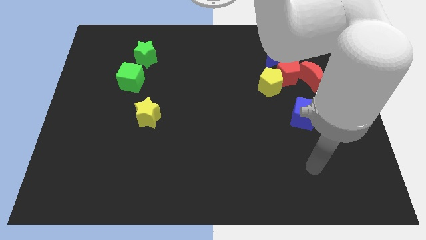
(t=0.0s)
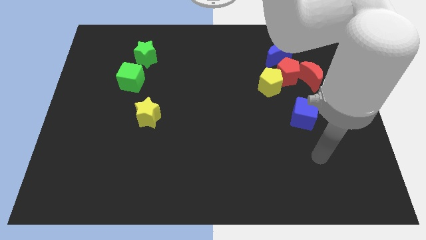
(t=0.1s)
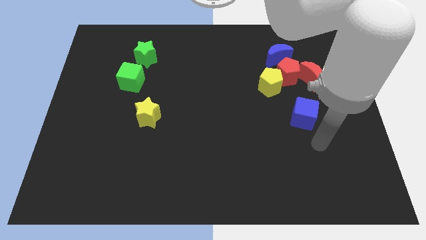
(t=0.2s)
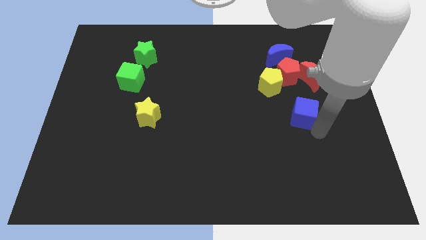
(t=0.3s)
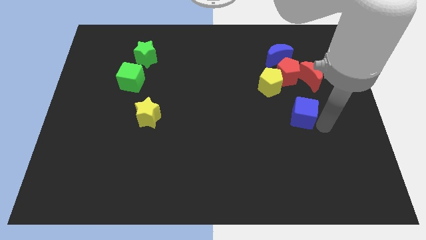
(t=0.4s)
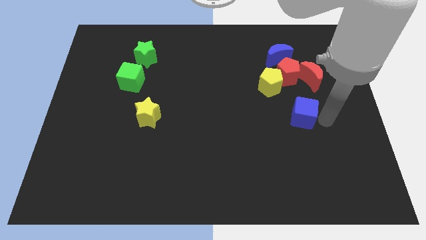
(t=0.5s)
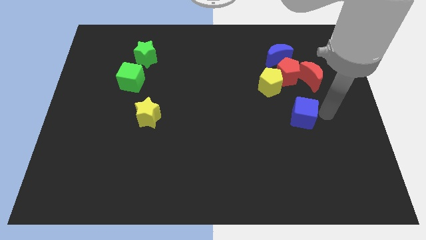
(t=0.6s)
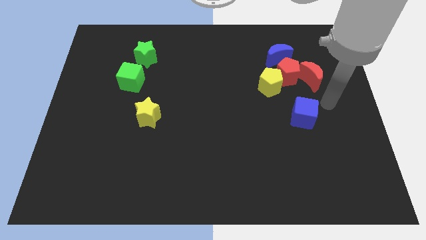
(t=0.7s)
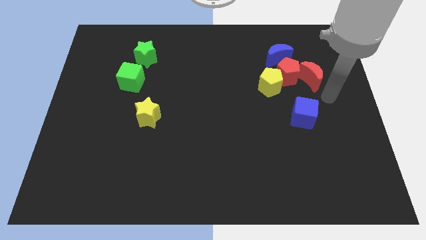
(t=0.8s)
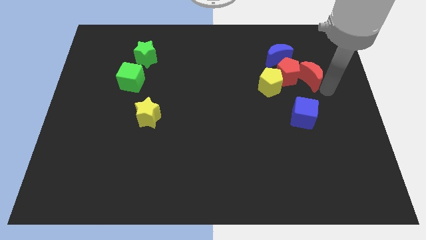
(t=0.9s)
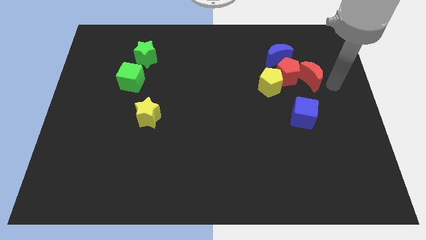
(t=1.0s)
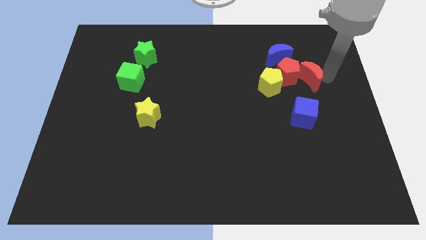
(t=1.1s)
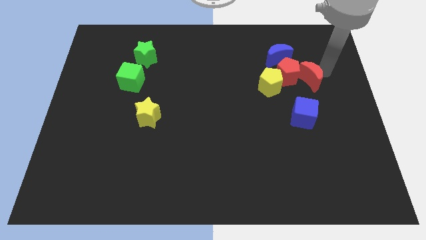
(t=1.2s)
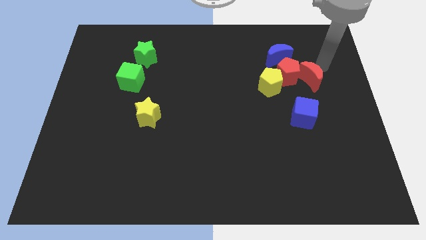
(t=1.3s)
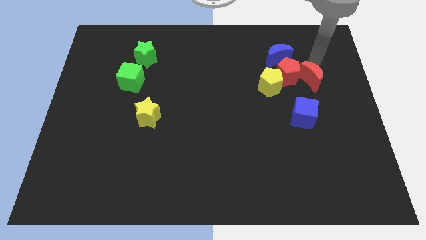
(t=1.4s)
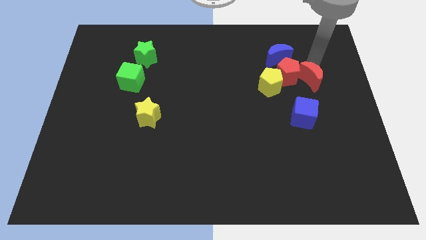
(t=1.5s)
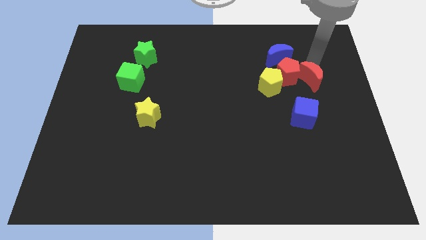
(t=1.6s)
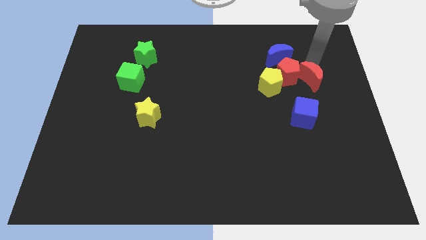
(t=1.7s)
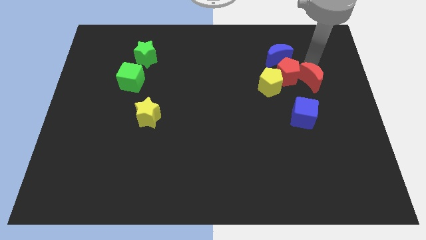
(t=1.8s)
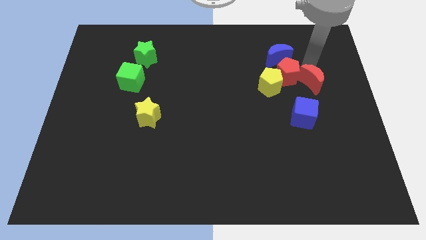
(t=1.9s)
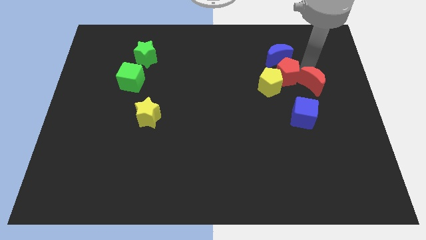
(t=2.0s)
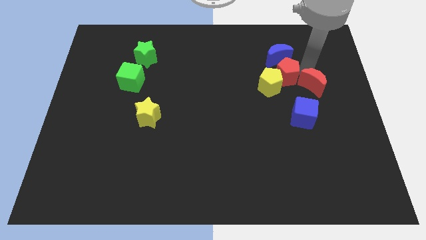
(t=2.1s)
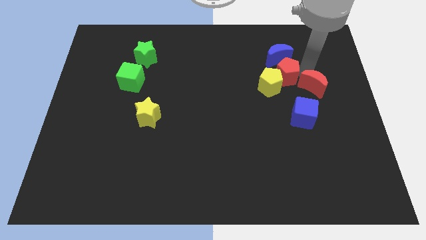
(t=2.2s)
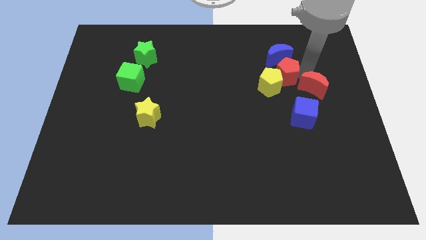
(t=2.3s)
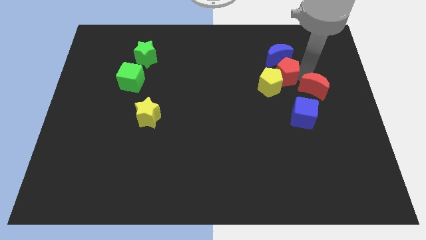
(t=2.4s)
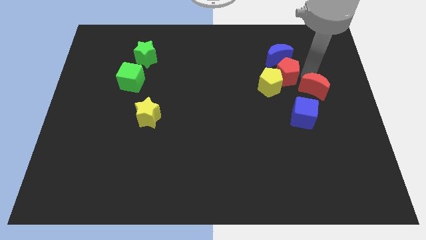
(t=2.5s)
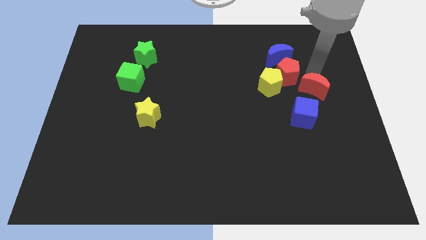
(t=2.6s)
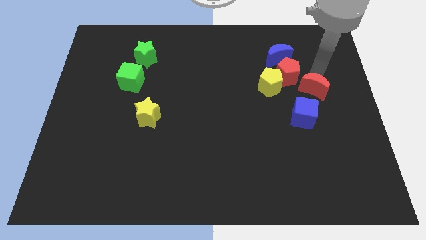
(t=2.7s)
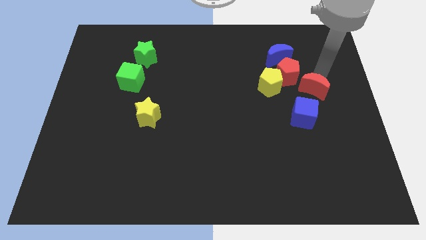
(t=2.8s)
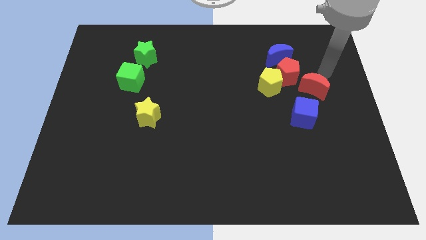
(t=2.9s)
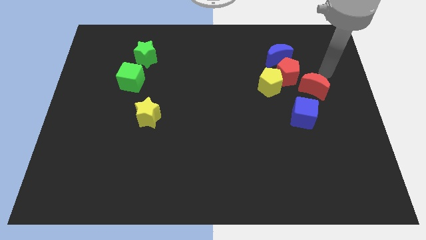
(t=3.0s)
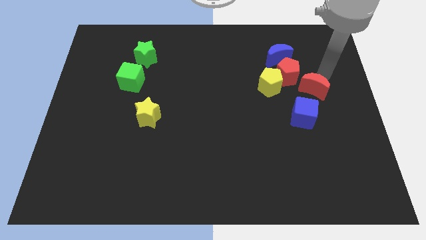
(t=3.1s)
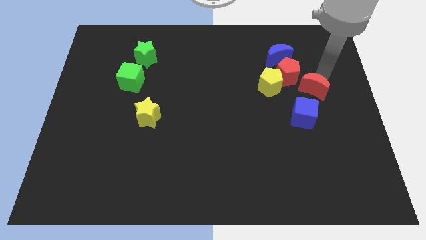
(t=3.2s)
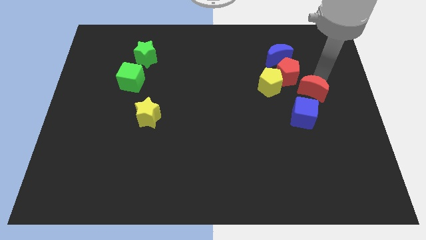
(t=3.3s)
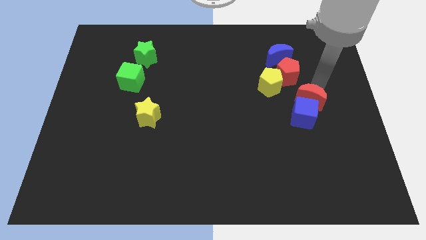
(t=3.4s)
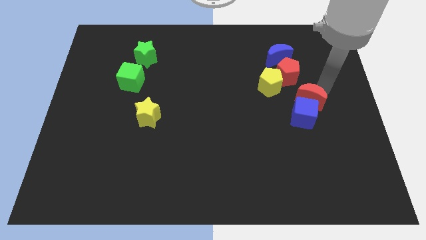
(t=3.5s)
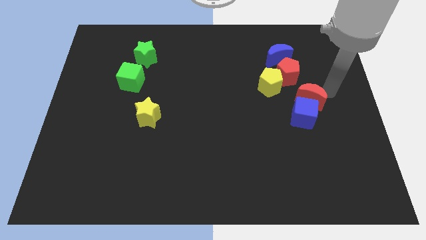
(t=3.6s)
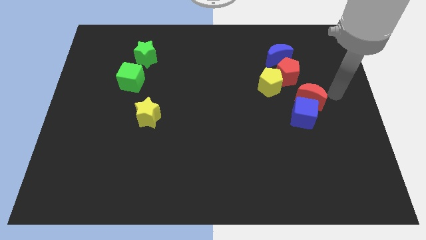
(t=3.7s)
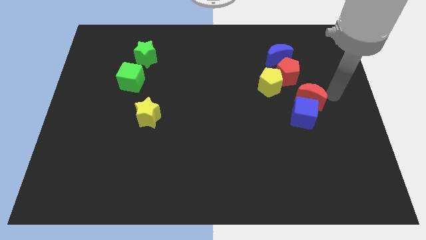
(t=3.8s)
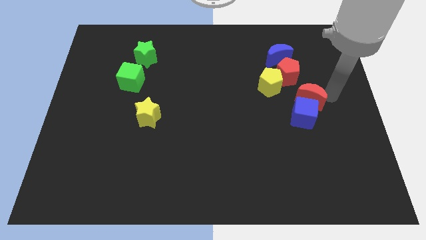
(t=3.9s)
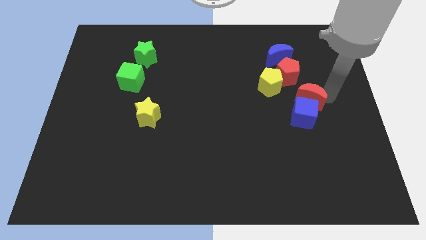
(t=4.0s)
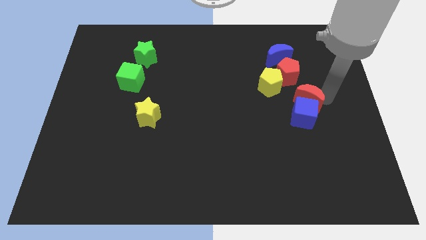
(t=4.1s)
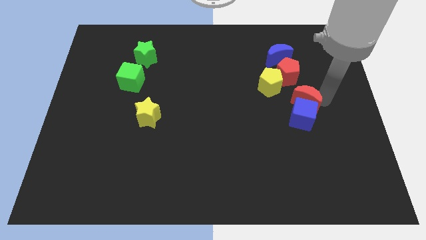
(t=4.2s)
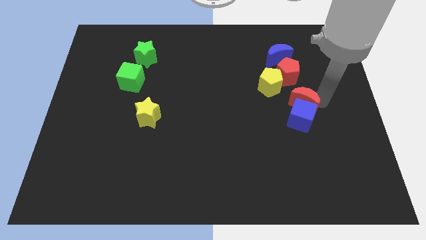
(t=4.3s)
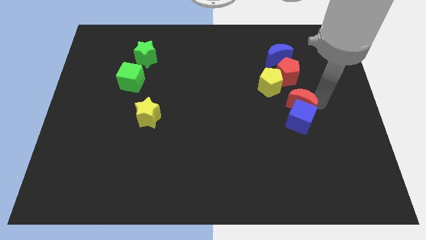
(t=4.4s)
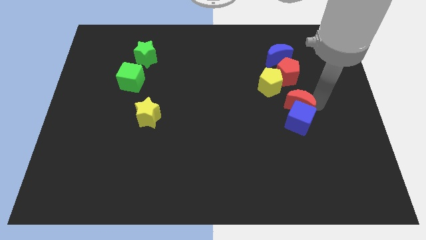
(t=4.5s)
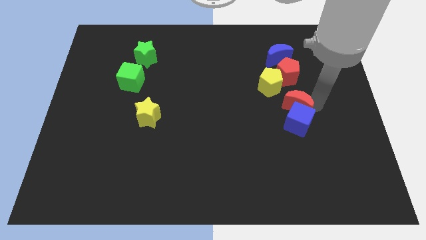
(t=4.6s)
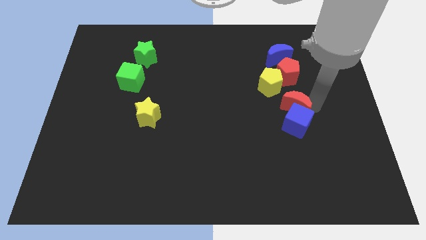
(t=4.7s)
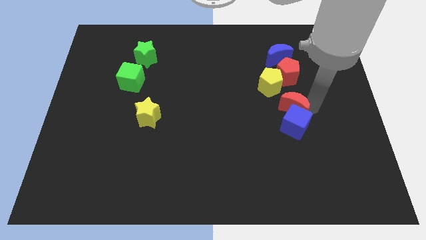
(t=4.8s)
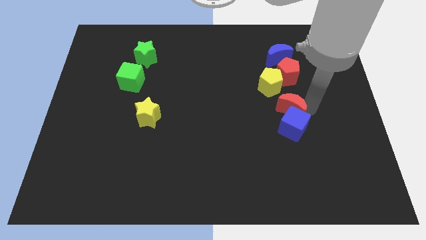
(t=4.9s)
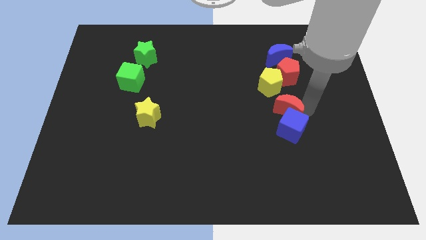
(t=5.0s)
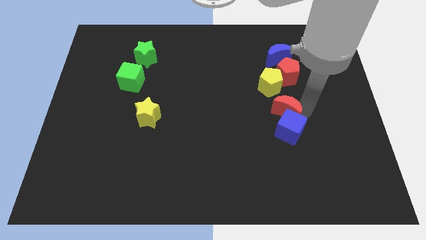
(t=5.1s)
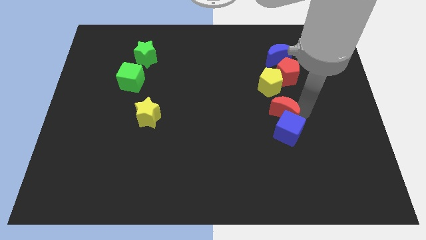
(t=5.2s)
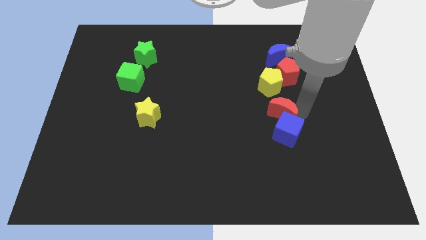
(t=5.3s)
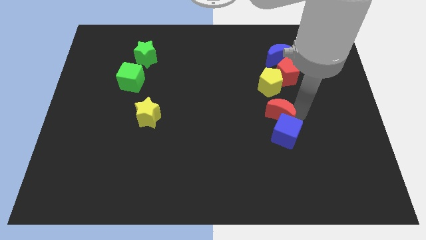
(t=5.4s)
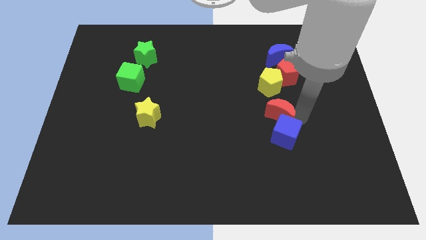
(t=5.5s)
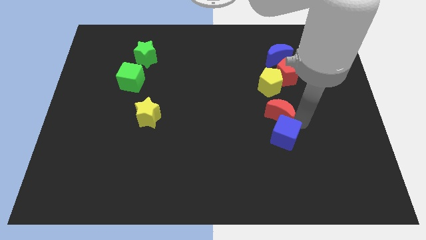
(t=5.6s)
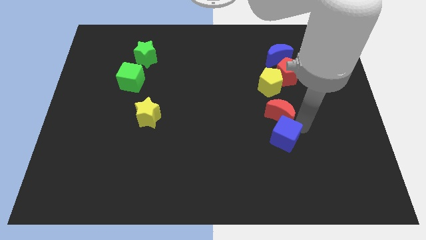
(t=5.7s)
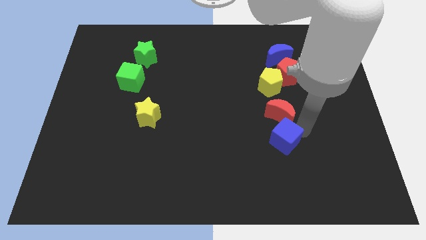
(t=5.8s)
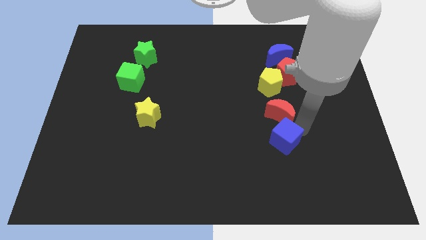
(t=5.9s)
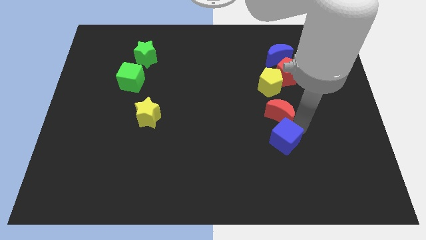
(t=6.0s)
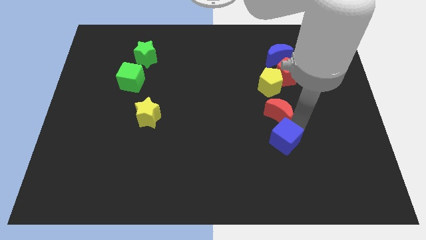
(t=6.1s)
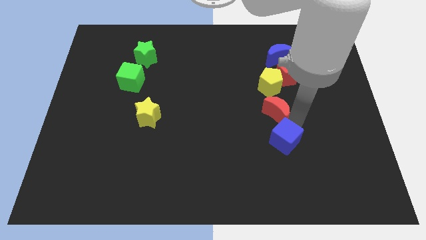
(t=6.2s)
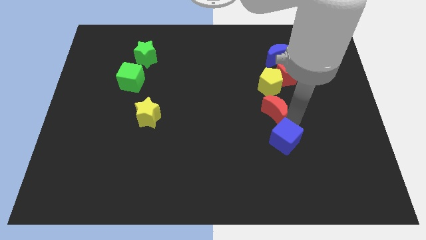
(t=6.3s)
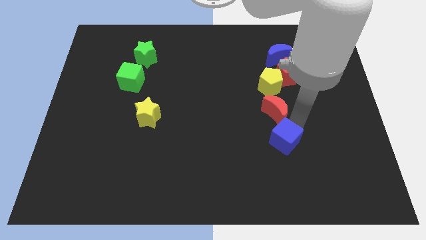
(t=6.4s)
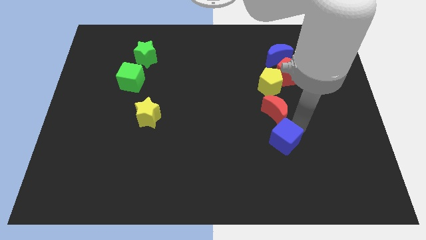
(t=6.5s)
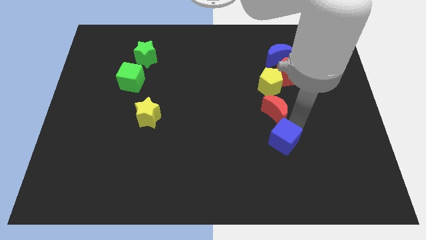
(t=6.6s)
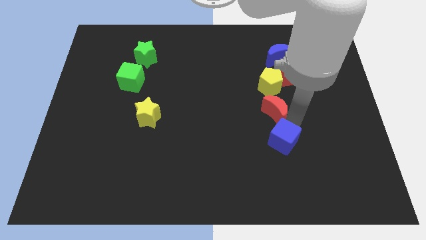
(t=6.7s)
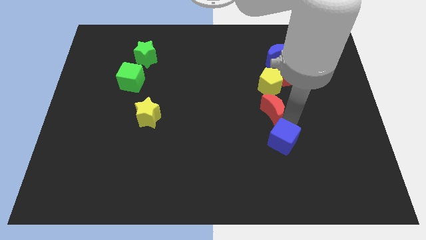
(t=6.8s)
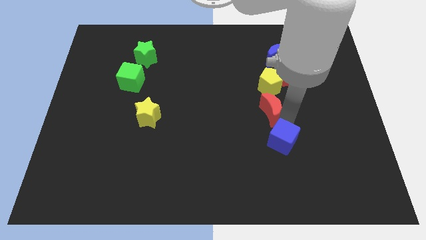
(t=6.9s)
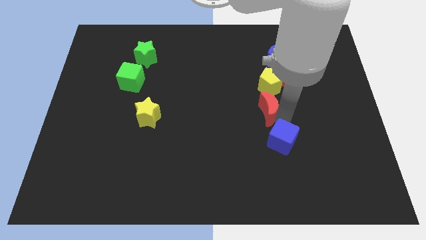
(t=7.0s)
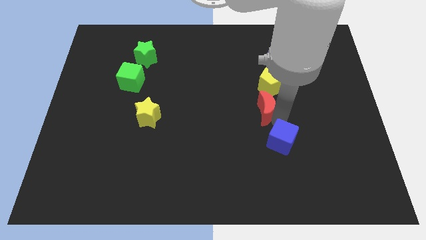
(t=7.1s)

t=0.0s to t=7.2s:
slightly move the red moon left

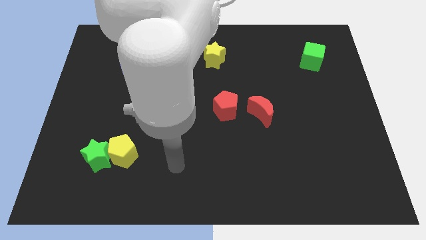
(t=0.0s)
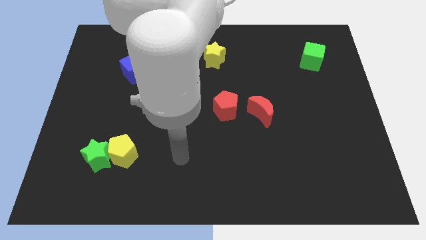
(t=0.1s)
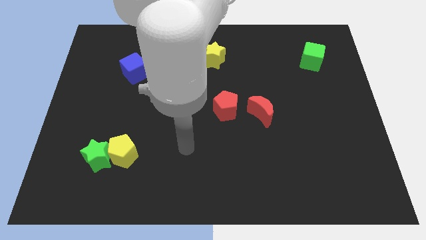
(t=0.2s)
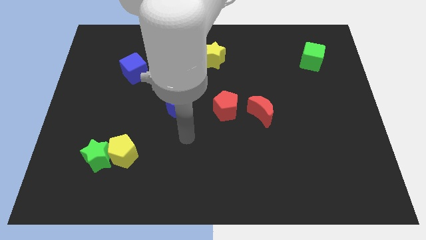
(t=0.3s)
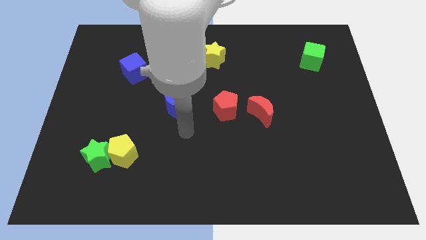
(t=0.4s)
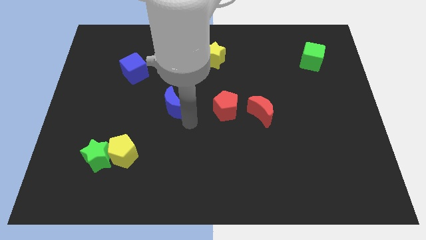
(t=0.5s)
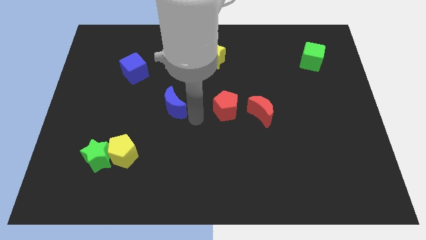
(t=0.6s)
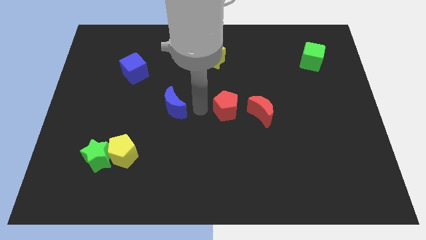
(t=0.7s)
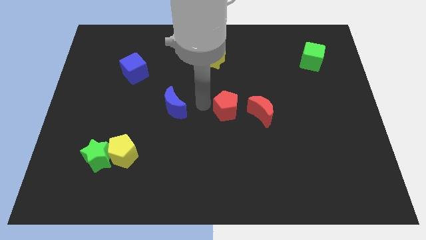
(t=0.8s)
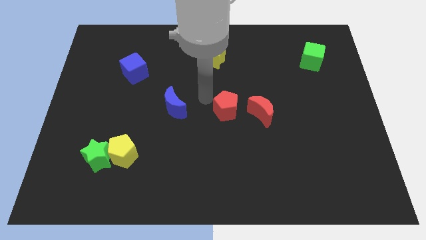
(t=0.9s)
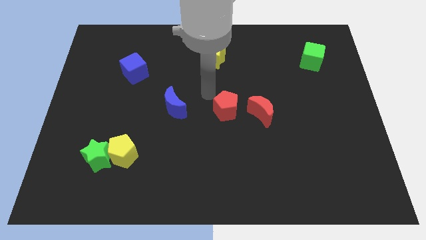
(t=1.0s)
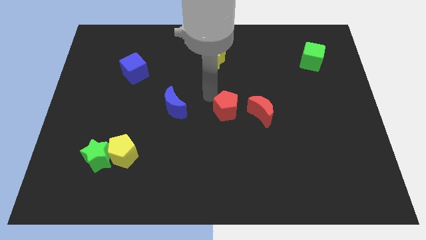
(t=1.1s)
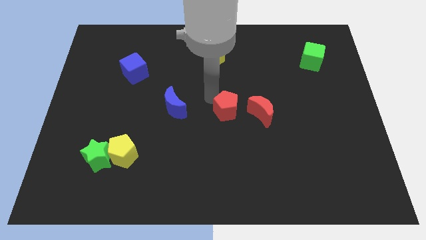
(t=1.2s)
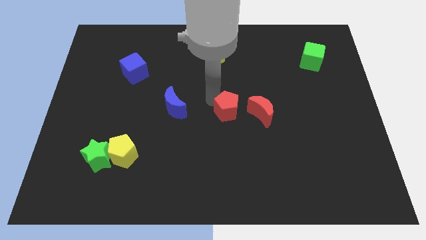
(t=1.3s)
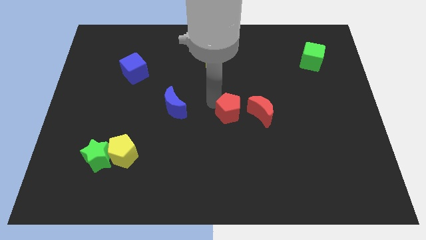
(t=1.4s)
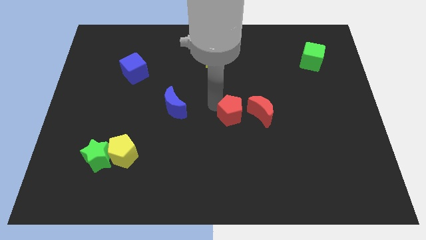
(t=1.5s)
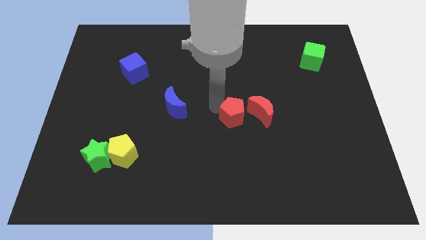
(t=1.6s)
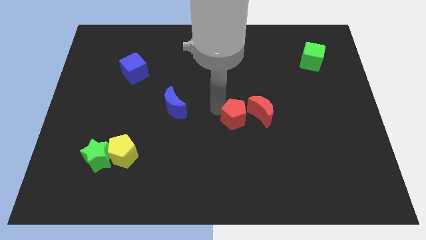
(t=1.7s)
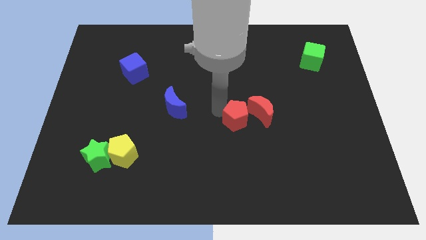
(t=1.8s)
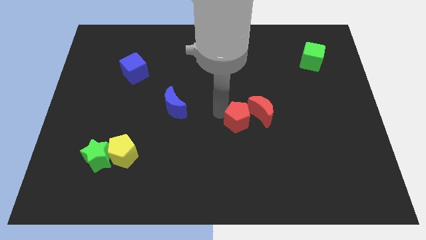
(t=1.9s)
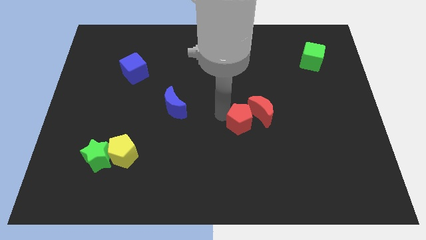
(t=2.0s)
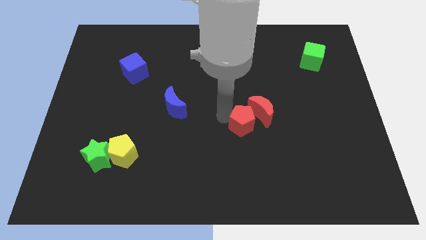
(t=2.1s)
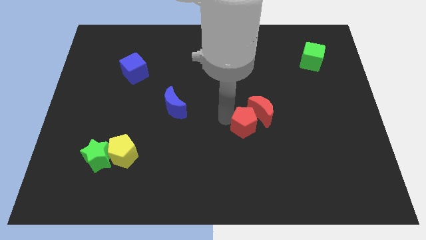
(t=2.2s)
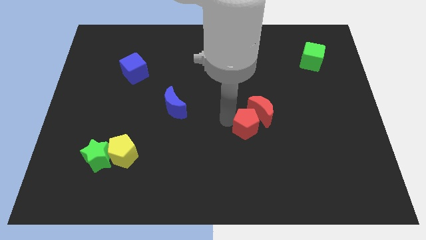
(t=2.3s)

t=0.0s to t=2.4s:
slide the red pentagon a bit downwards and then to the right
